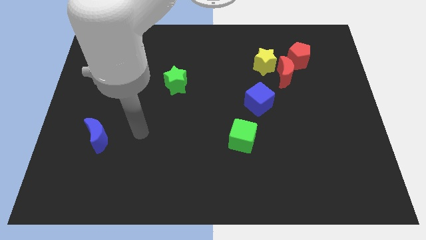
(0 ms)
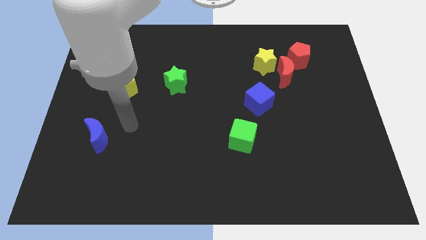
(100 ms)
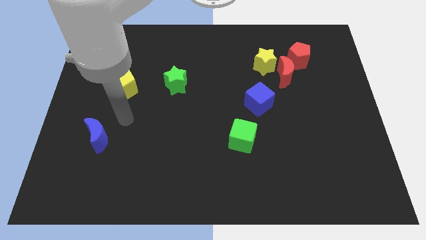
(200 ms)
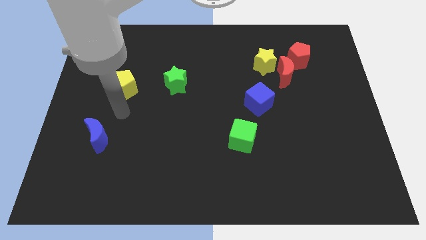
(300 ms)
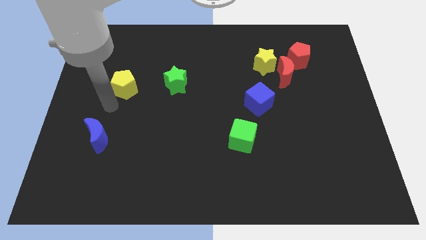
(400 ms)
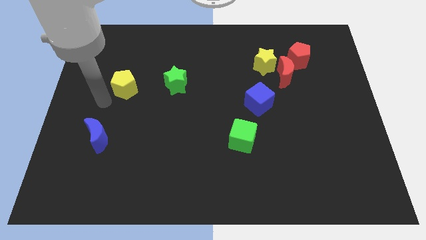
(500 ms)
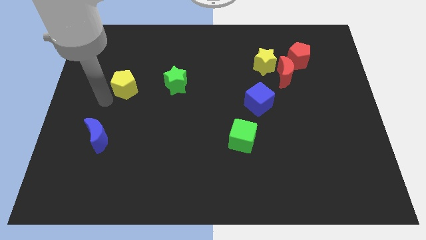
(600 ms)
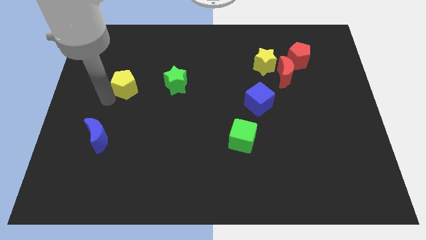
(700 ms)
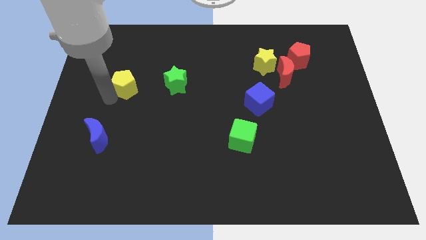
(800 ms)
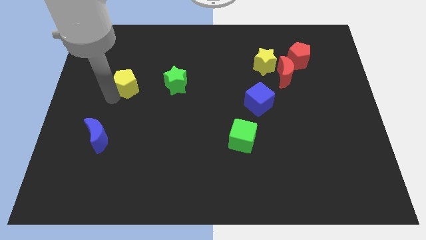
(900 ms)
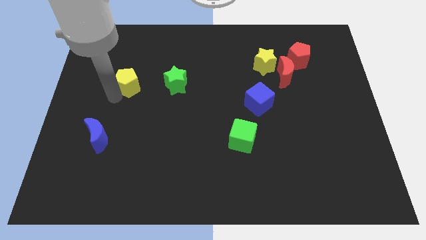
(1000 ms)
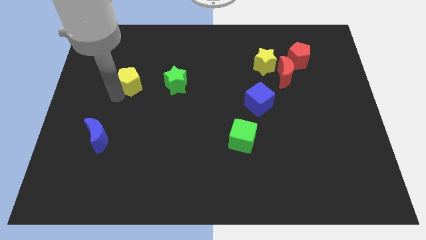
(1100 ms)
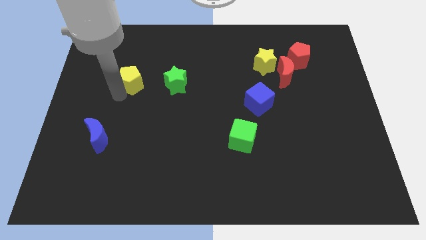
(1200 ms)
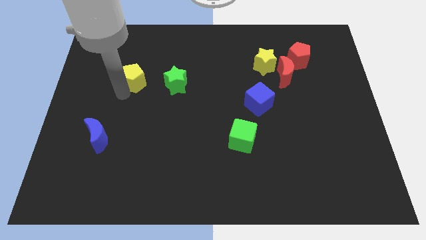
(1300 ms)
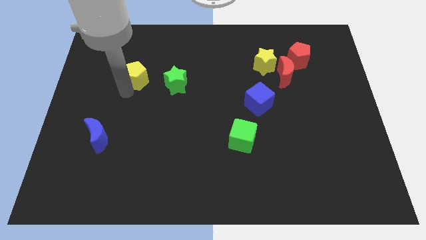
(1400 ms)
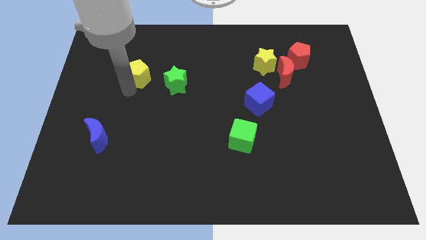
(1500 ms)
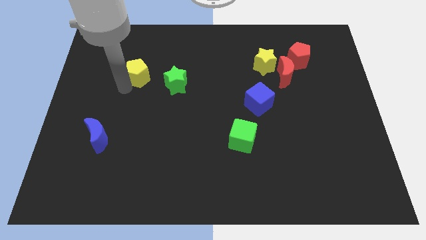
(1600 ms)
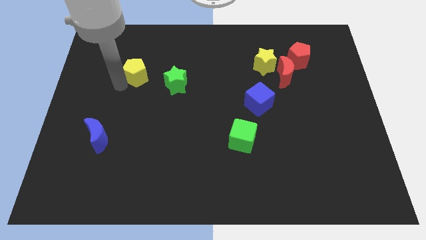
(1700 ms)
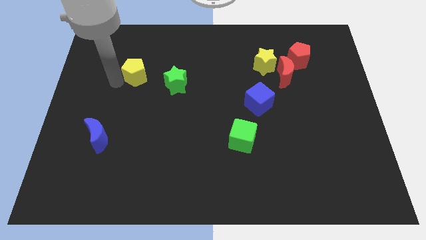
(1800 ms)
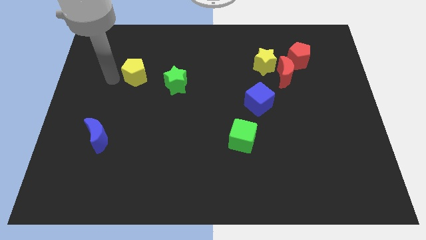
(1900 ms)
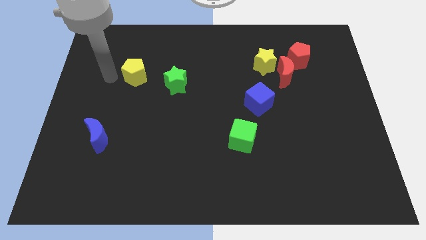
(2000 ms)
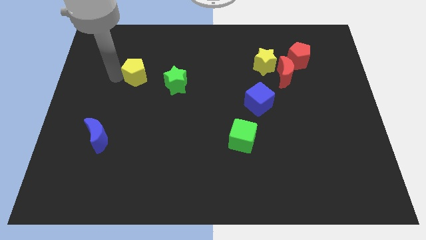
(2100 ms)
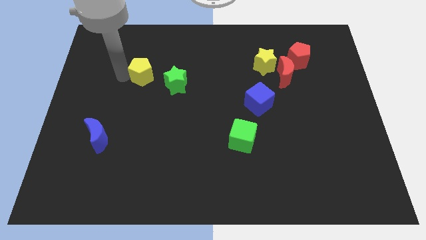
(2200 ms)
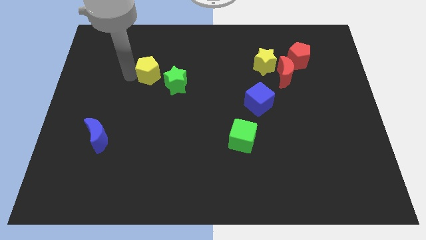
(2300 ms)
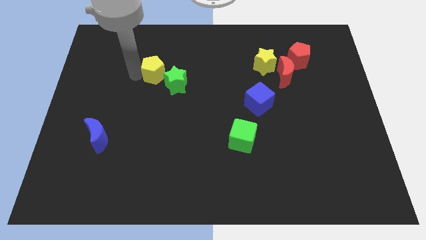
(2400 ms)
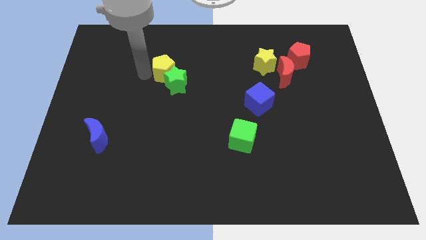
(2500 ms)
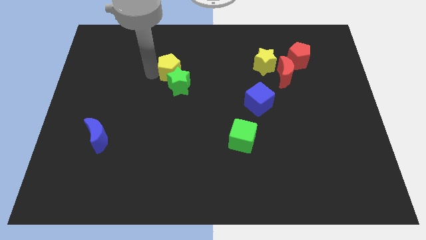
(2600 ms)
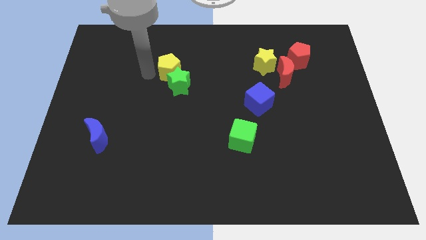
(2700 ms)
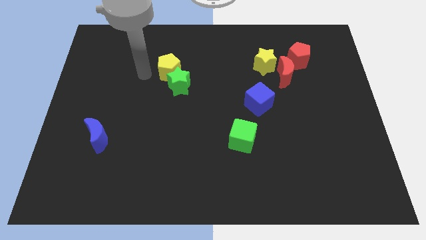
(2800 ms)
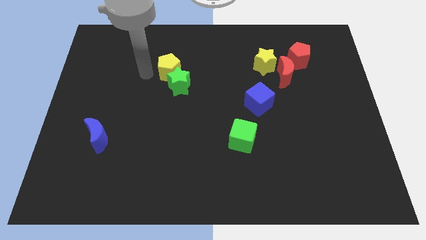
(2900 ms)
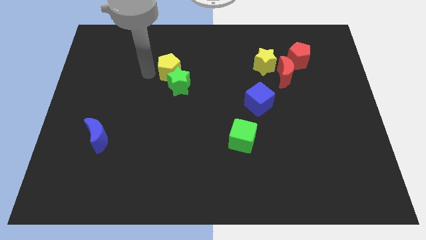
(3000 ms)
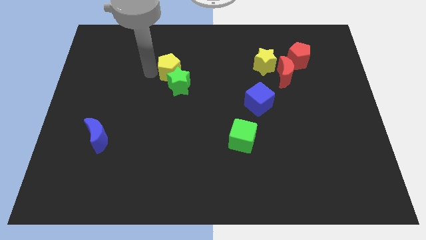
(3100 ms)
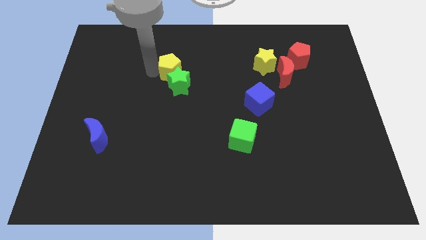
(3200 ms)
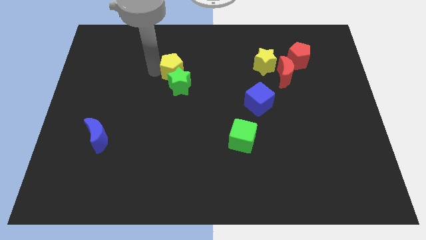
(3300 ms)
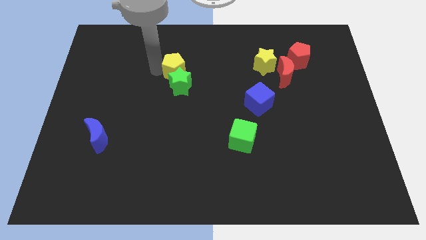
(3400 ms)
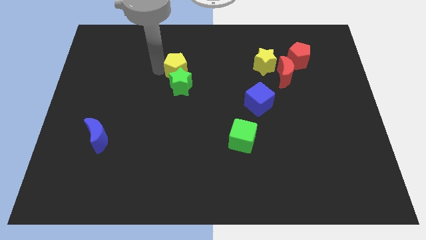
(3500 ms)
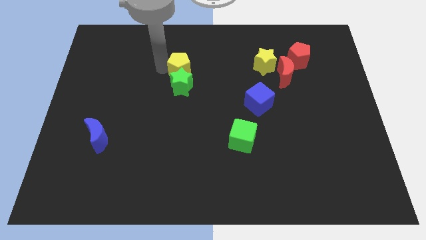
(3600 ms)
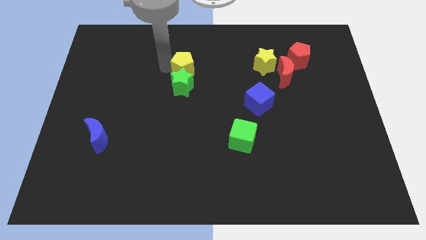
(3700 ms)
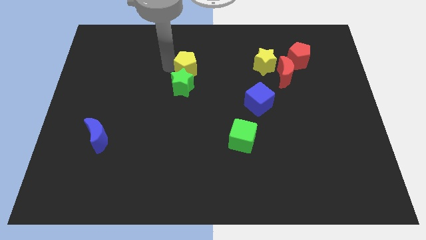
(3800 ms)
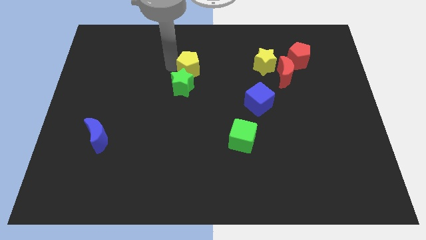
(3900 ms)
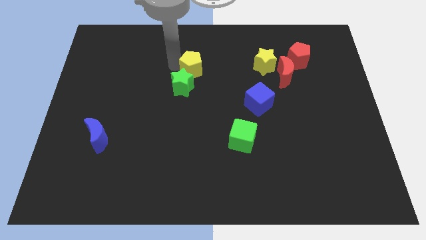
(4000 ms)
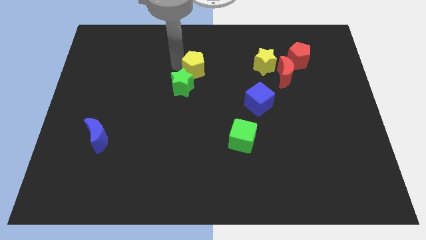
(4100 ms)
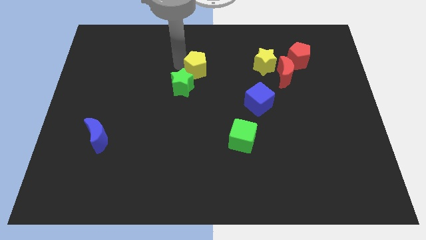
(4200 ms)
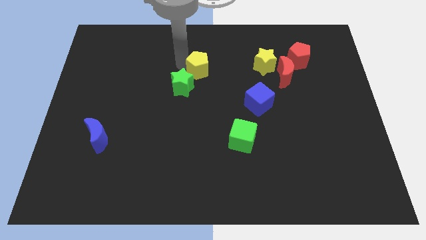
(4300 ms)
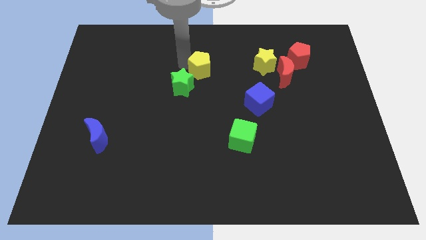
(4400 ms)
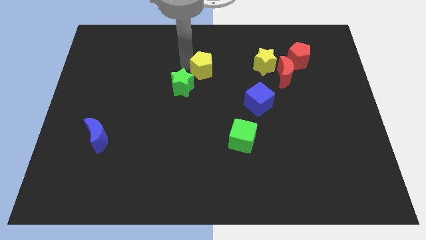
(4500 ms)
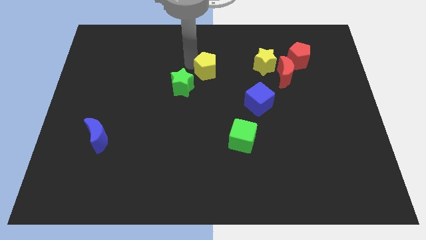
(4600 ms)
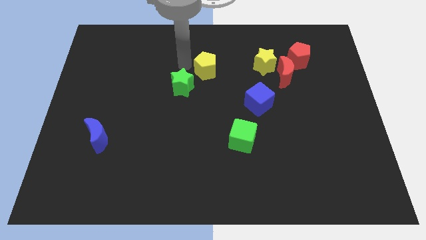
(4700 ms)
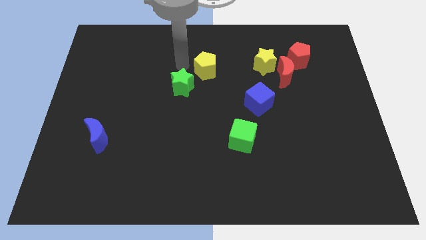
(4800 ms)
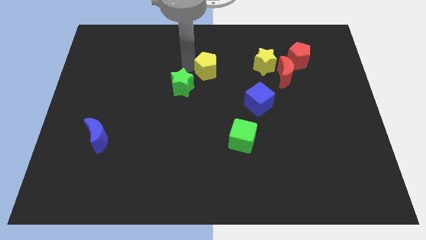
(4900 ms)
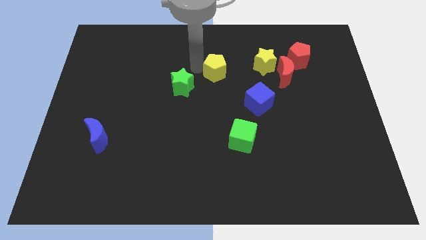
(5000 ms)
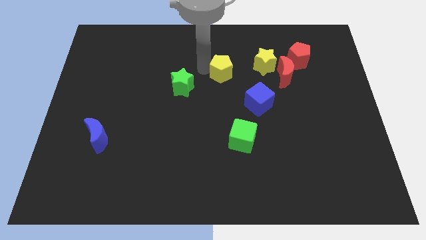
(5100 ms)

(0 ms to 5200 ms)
push the yellow pentagon to the left of the red moon

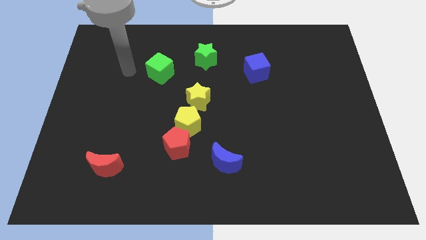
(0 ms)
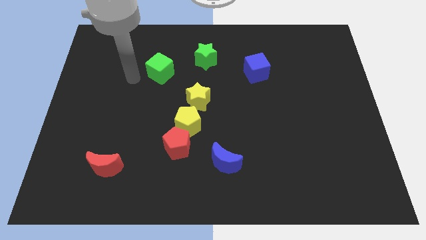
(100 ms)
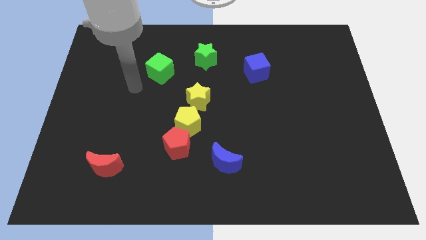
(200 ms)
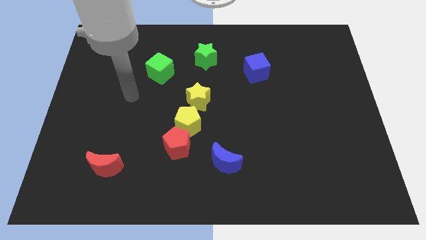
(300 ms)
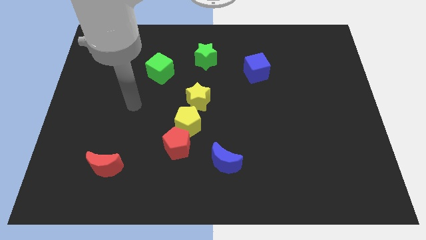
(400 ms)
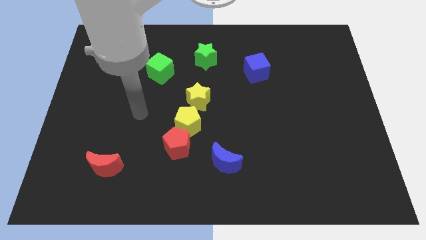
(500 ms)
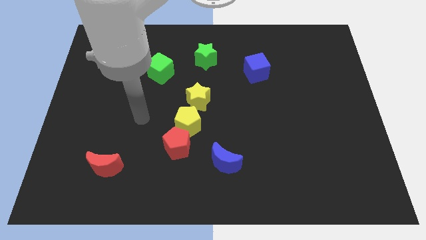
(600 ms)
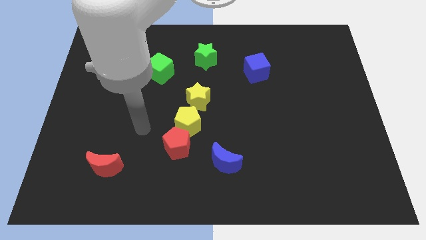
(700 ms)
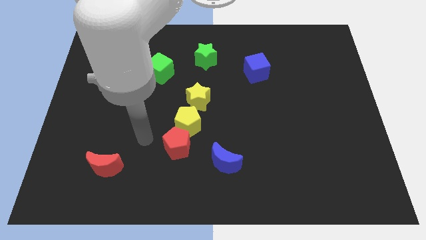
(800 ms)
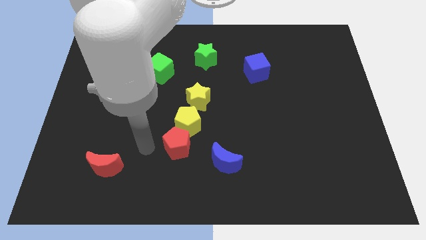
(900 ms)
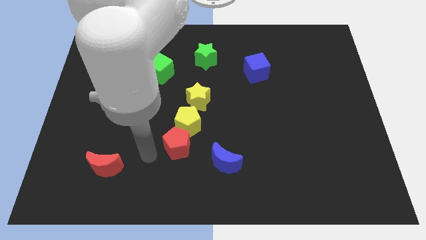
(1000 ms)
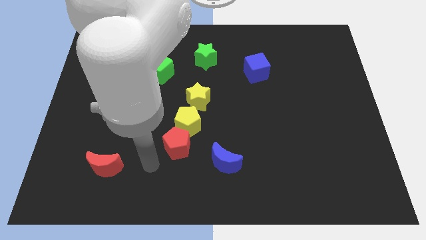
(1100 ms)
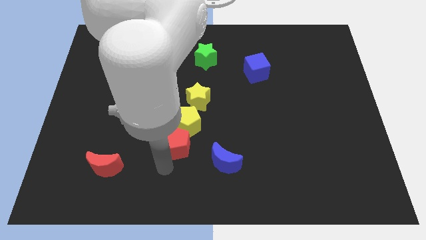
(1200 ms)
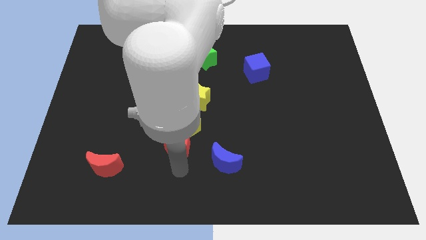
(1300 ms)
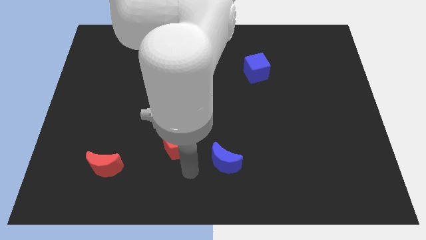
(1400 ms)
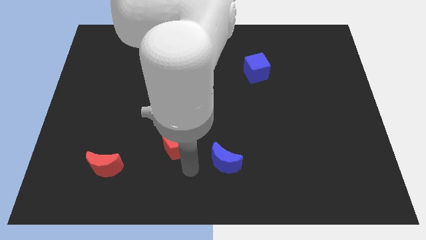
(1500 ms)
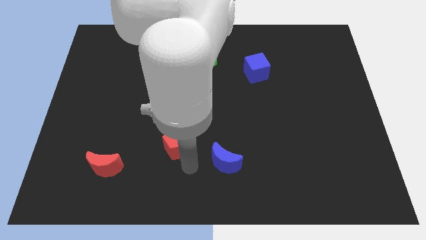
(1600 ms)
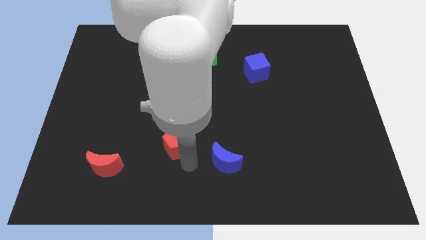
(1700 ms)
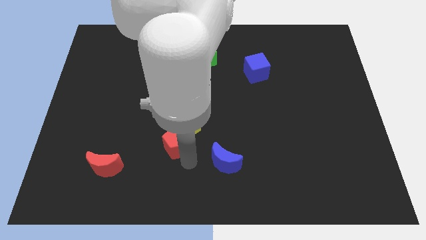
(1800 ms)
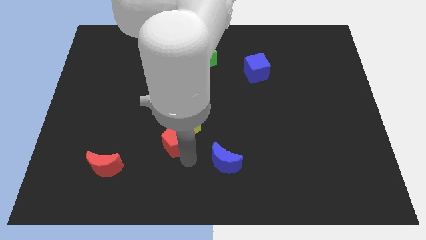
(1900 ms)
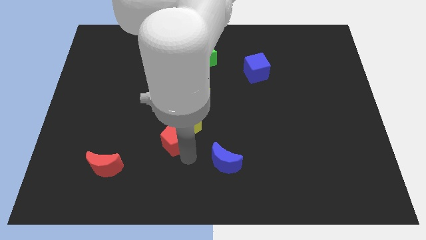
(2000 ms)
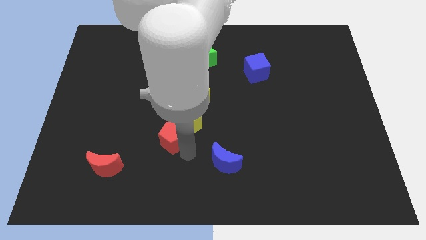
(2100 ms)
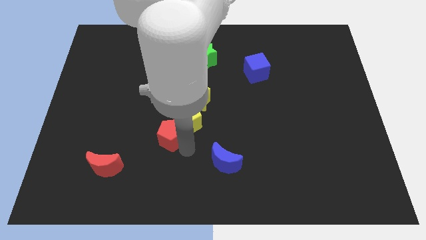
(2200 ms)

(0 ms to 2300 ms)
put the red pentagon just left of the yellow pentagon
